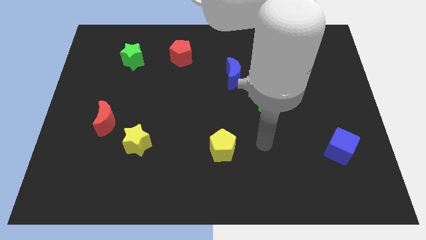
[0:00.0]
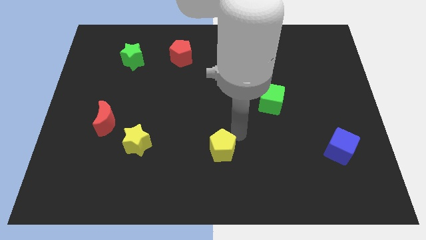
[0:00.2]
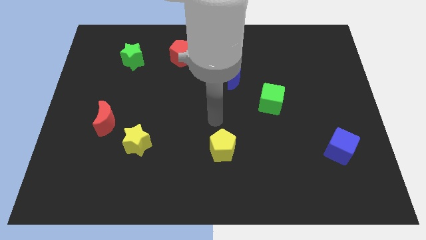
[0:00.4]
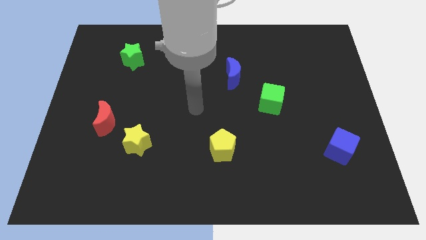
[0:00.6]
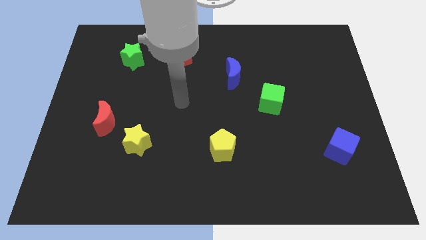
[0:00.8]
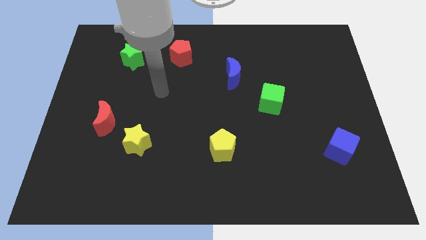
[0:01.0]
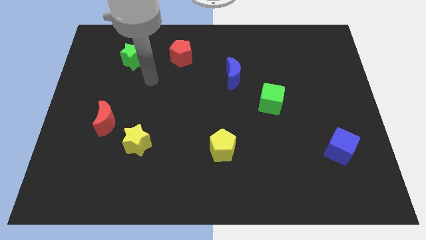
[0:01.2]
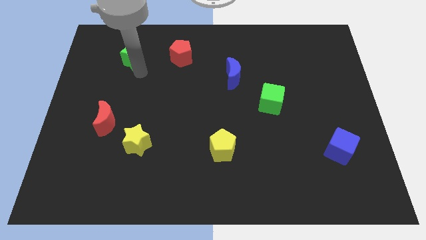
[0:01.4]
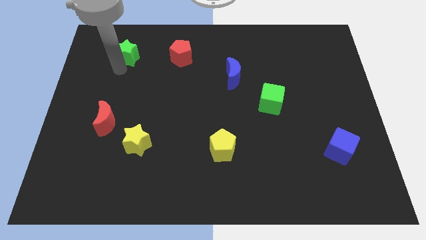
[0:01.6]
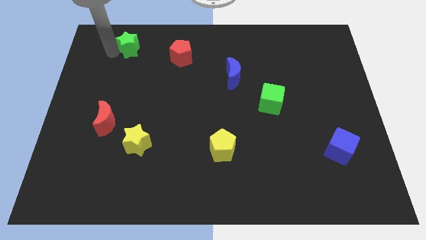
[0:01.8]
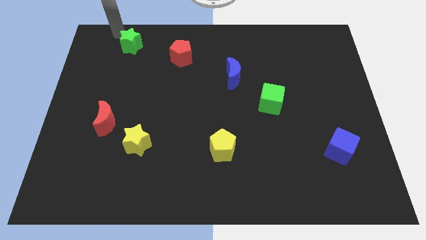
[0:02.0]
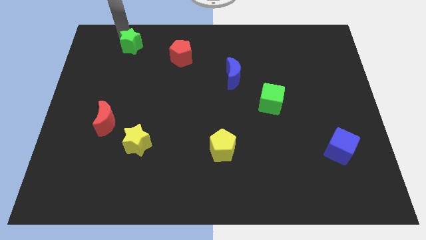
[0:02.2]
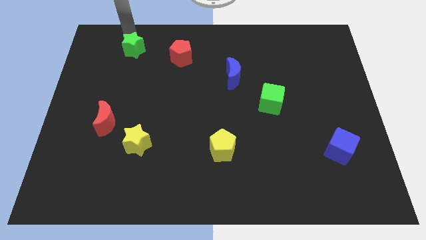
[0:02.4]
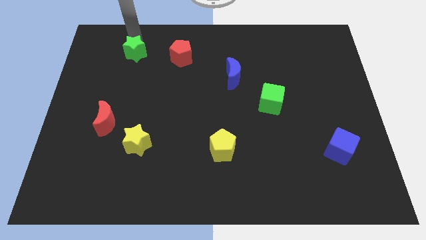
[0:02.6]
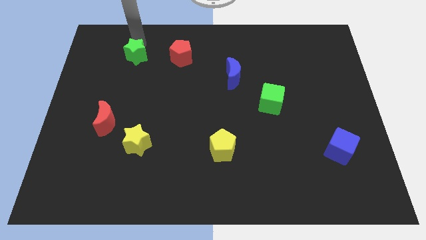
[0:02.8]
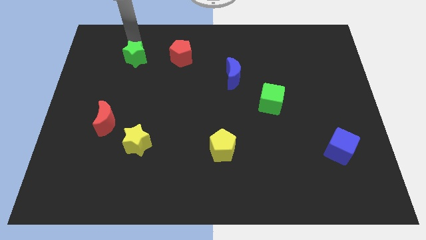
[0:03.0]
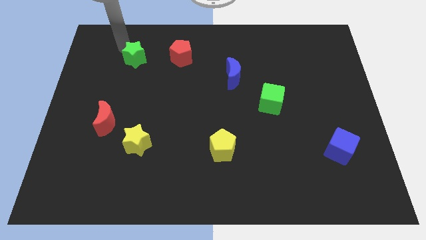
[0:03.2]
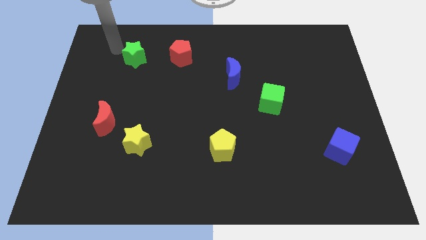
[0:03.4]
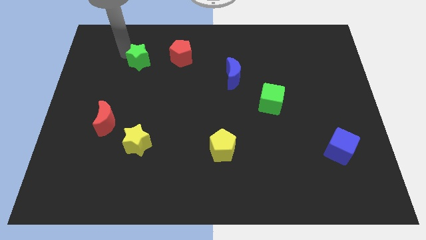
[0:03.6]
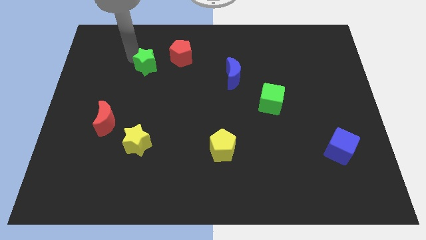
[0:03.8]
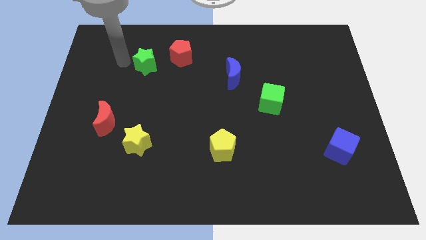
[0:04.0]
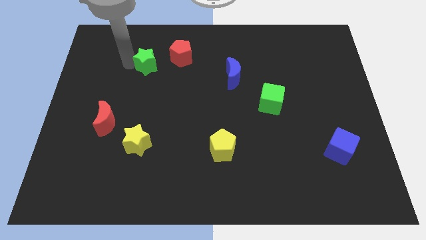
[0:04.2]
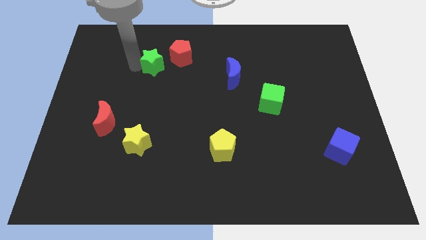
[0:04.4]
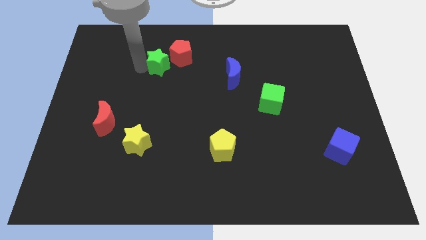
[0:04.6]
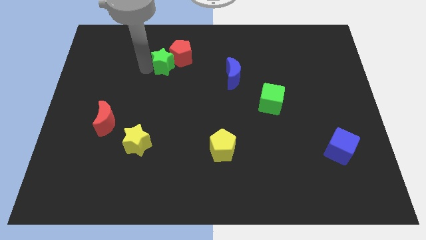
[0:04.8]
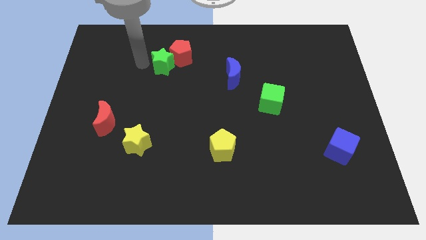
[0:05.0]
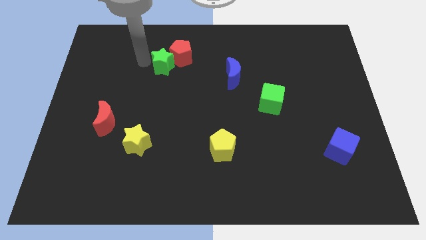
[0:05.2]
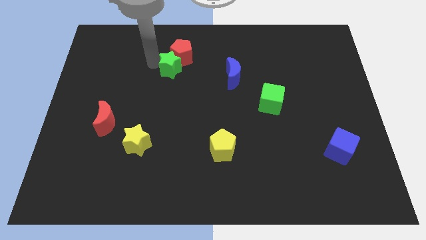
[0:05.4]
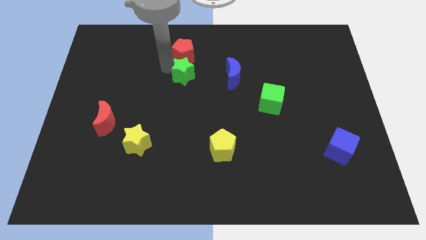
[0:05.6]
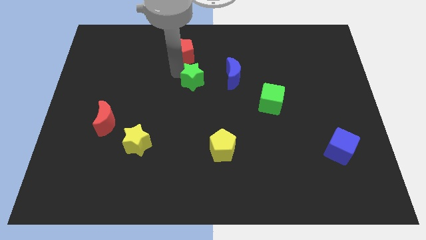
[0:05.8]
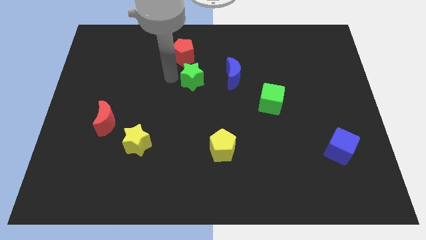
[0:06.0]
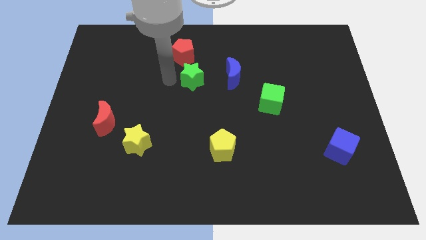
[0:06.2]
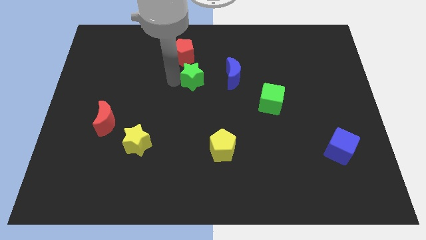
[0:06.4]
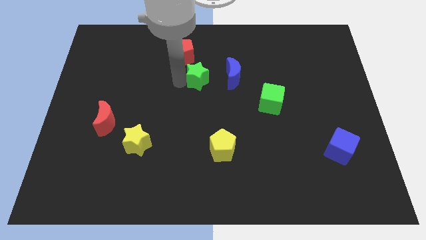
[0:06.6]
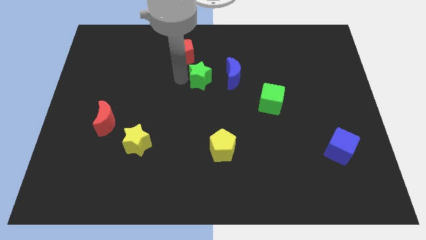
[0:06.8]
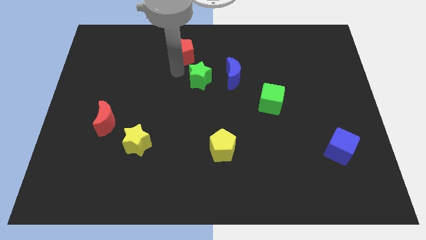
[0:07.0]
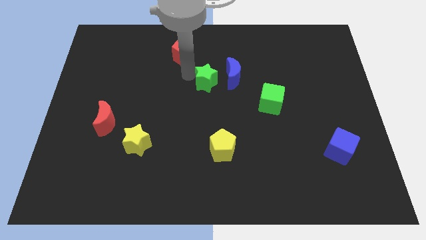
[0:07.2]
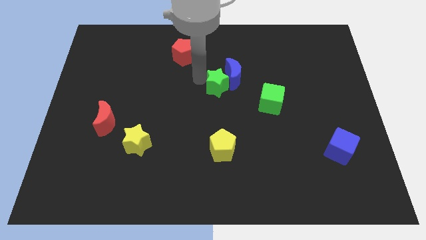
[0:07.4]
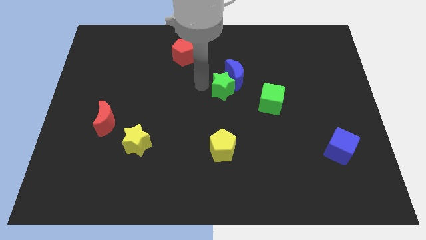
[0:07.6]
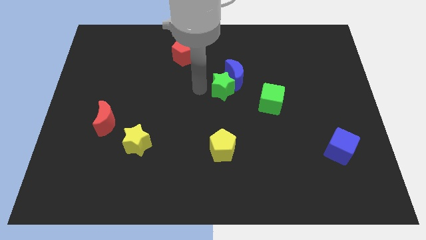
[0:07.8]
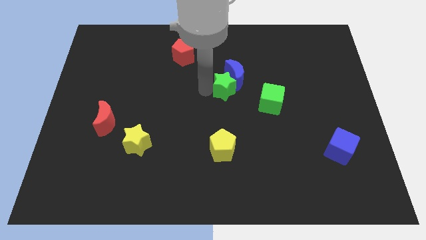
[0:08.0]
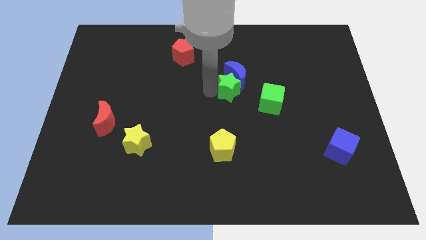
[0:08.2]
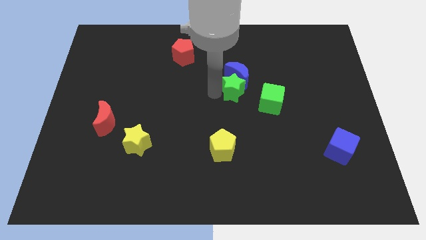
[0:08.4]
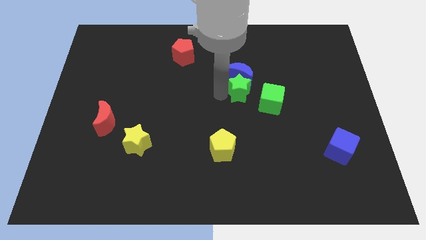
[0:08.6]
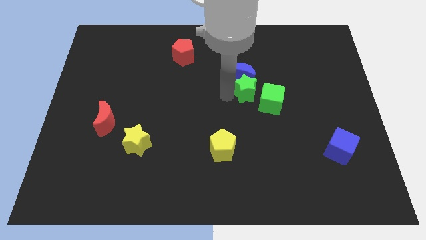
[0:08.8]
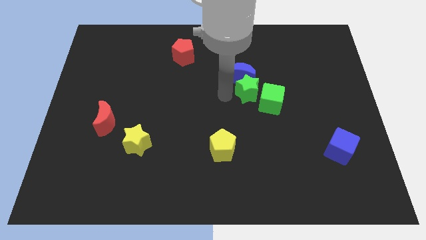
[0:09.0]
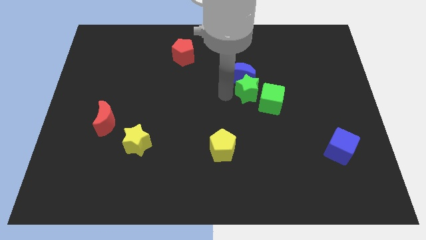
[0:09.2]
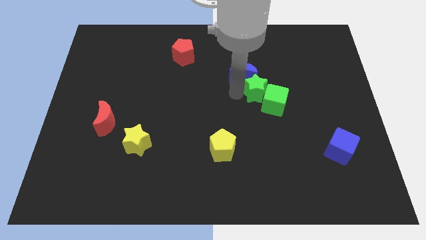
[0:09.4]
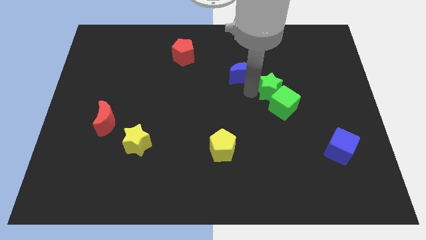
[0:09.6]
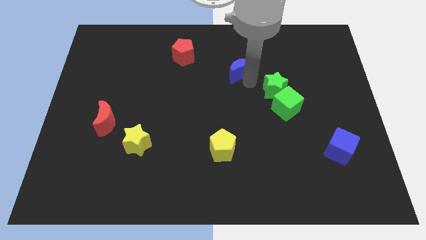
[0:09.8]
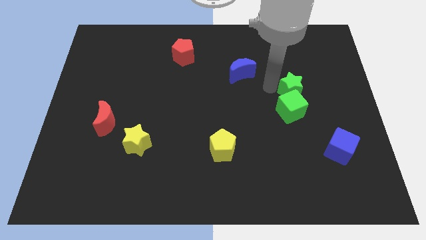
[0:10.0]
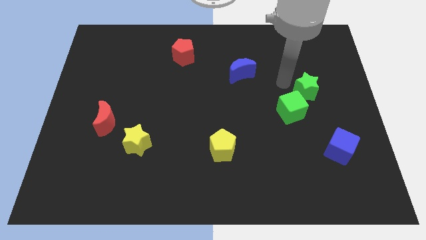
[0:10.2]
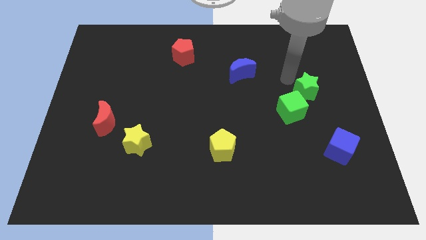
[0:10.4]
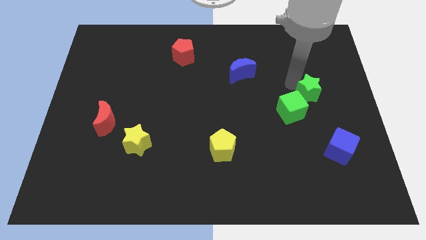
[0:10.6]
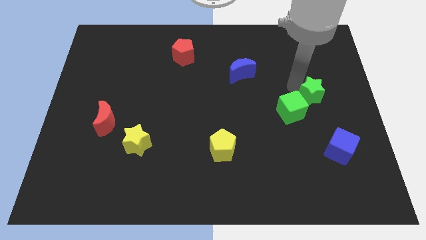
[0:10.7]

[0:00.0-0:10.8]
move the green star right of the green cube

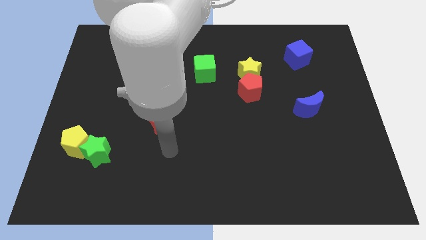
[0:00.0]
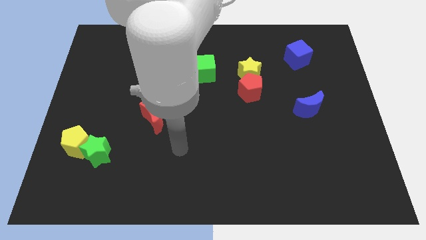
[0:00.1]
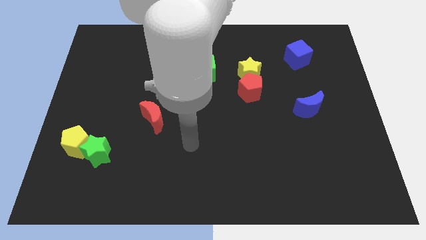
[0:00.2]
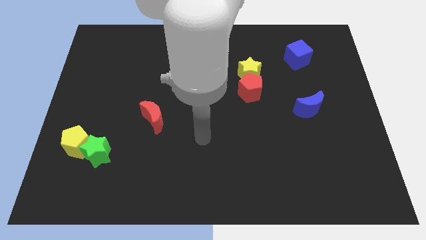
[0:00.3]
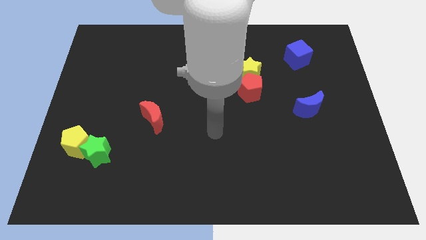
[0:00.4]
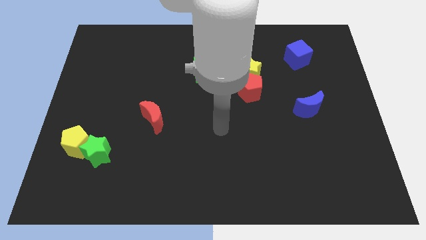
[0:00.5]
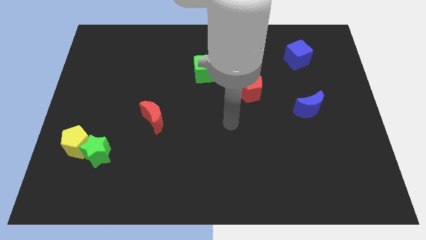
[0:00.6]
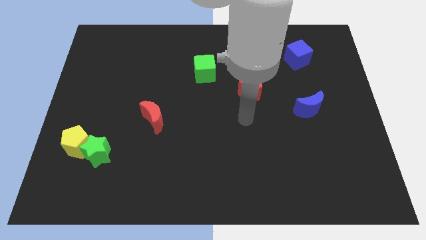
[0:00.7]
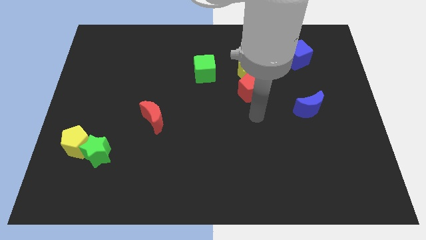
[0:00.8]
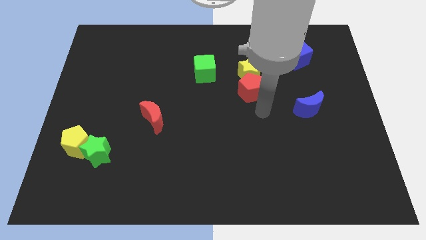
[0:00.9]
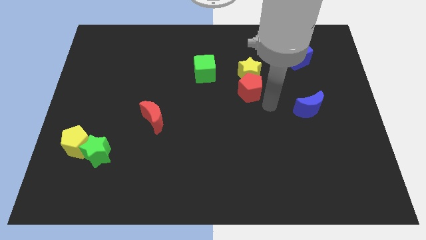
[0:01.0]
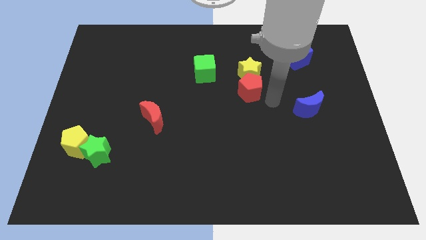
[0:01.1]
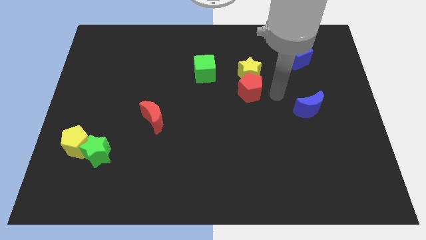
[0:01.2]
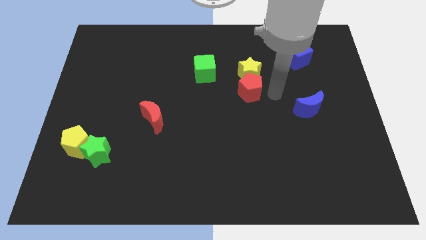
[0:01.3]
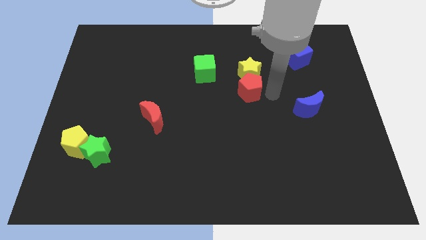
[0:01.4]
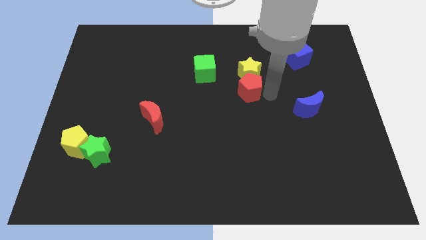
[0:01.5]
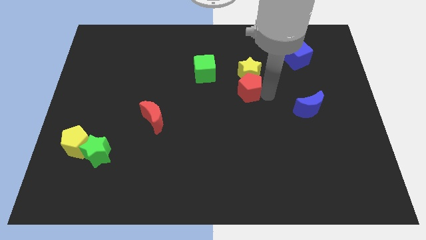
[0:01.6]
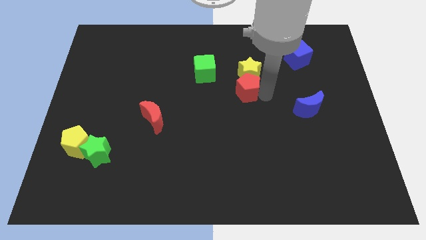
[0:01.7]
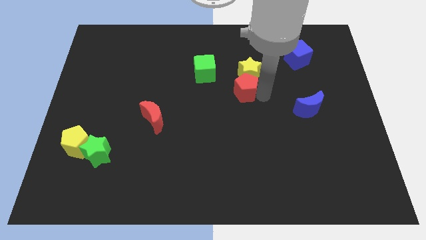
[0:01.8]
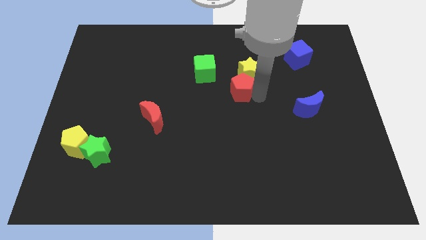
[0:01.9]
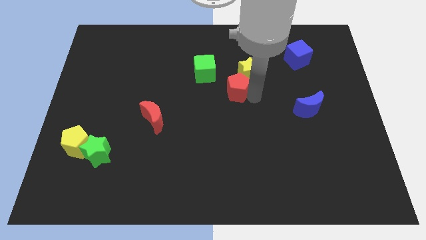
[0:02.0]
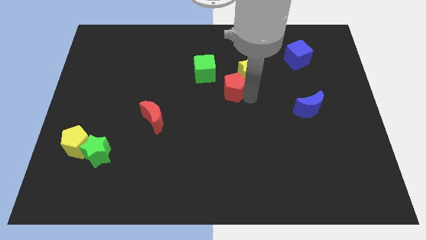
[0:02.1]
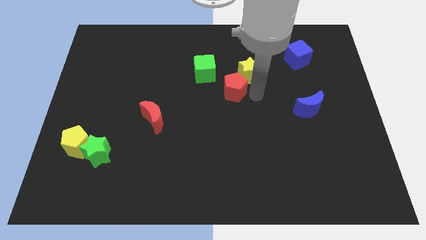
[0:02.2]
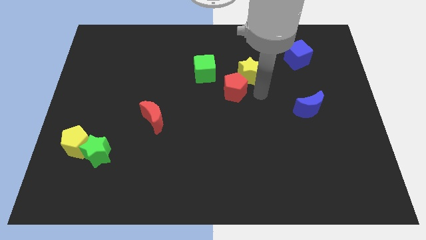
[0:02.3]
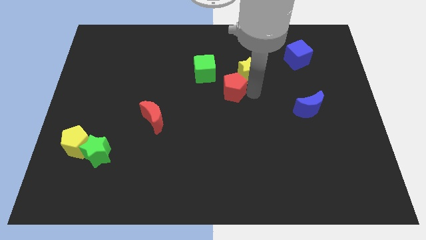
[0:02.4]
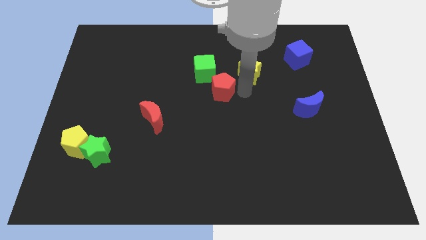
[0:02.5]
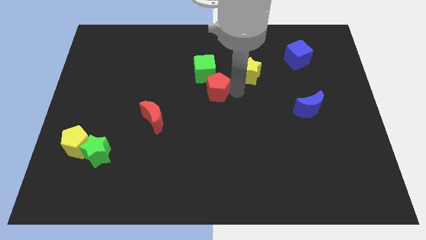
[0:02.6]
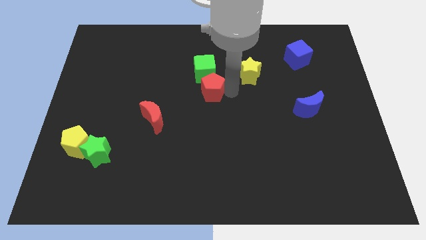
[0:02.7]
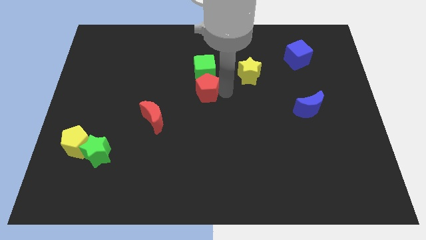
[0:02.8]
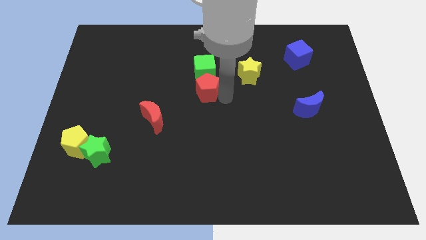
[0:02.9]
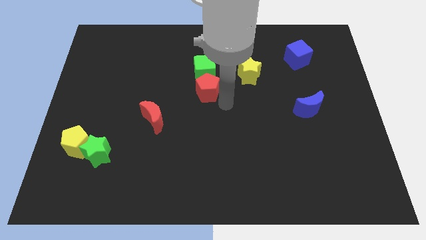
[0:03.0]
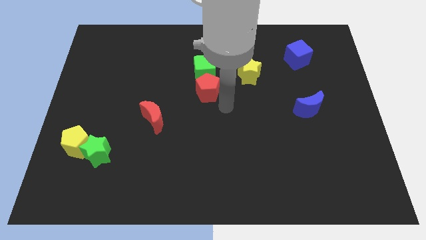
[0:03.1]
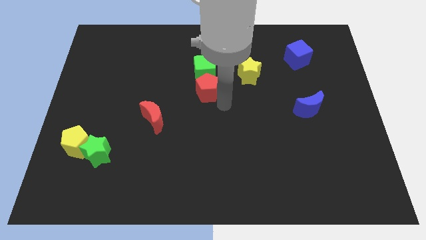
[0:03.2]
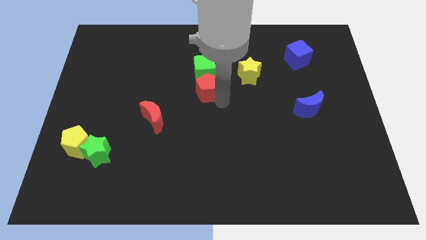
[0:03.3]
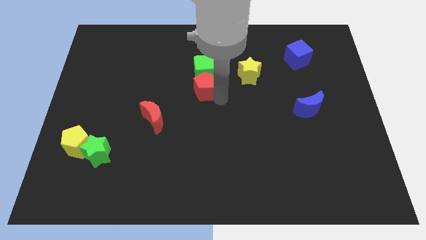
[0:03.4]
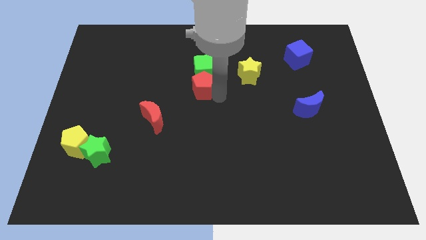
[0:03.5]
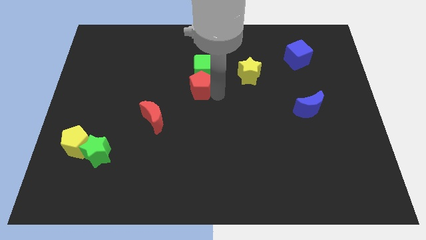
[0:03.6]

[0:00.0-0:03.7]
move the red pentagon left of the yellow star
